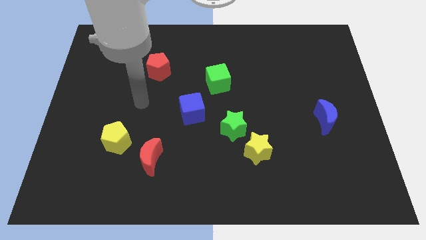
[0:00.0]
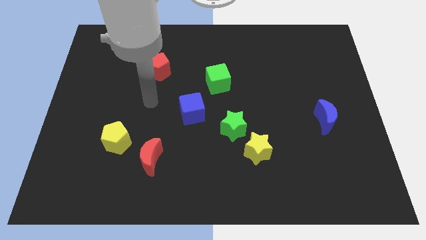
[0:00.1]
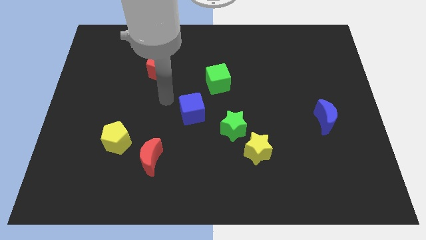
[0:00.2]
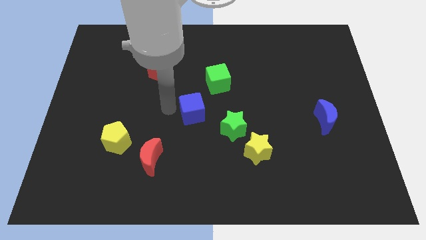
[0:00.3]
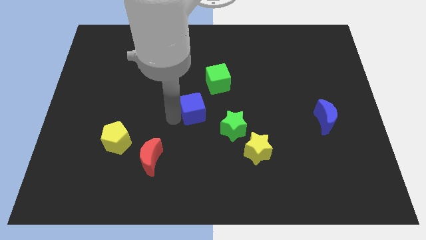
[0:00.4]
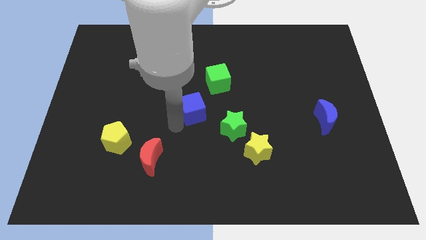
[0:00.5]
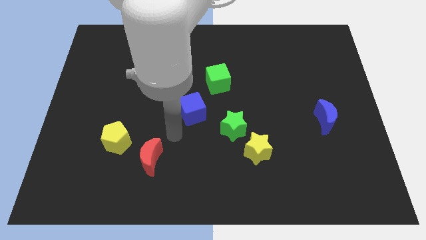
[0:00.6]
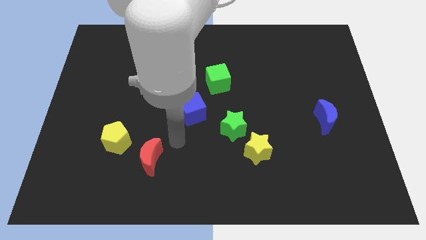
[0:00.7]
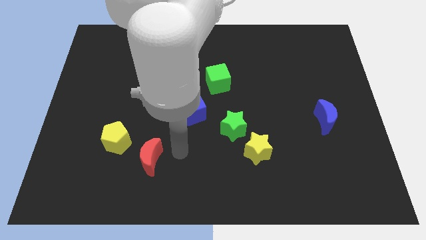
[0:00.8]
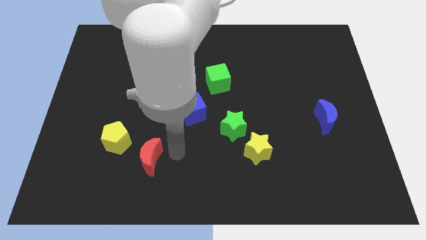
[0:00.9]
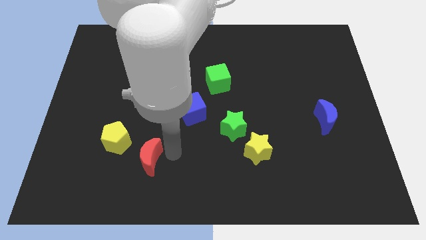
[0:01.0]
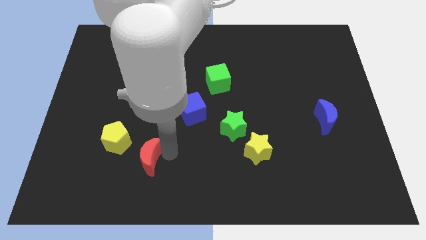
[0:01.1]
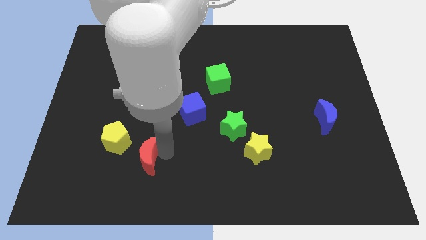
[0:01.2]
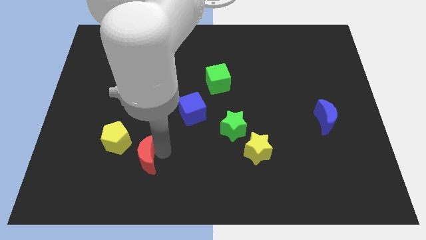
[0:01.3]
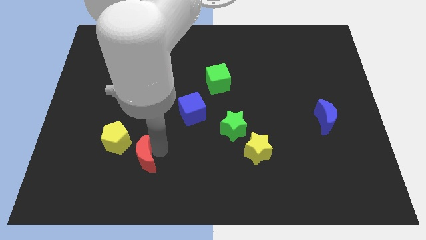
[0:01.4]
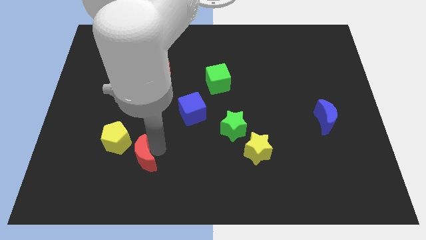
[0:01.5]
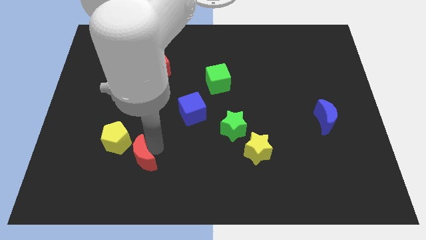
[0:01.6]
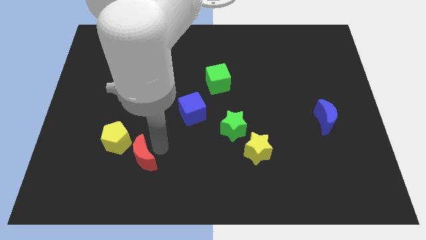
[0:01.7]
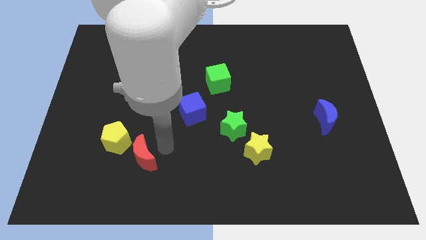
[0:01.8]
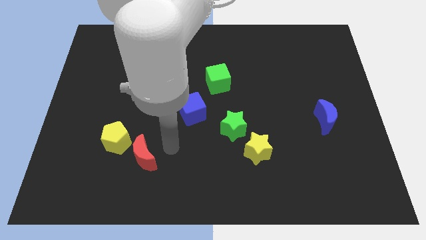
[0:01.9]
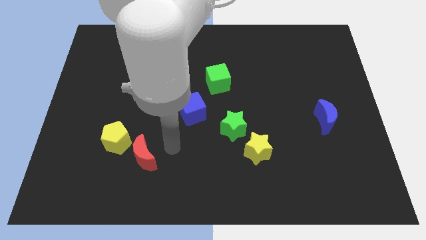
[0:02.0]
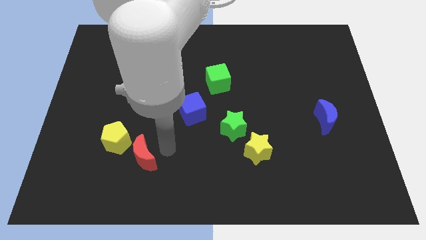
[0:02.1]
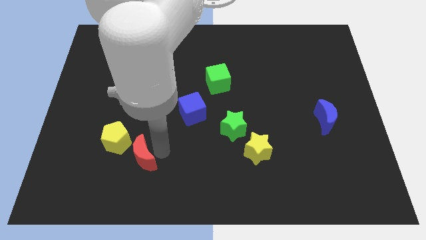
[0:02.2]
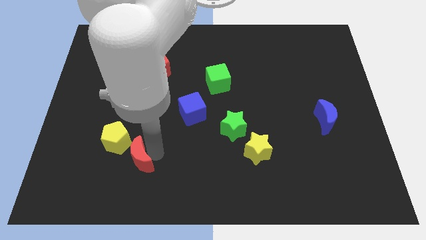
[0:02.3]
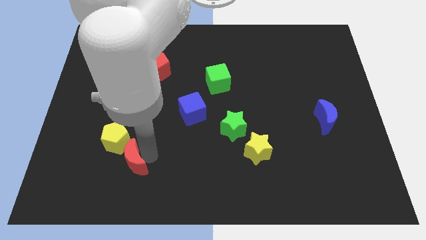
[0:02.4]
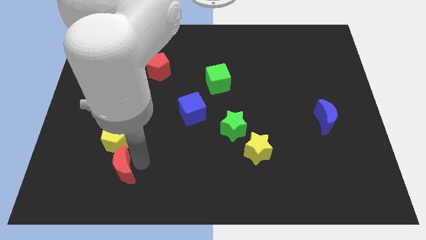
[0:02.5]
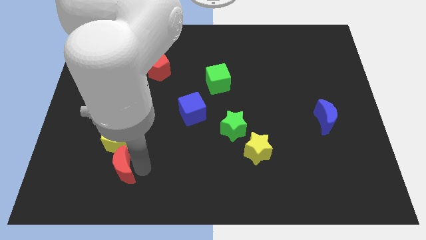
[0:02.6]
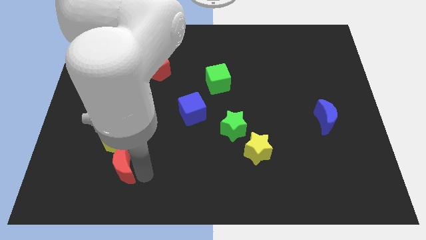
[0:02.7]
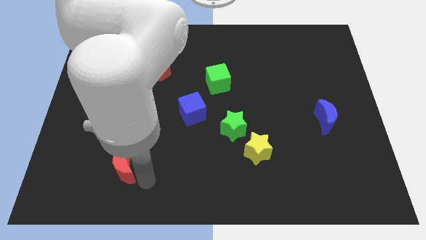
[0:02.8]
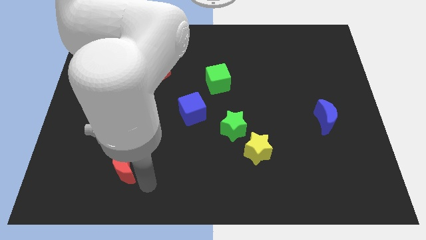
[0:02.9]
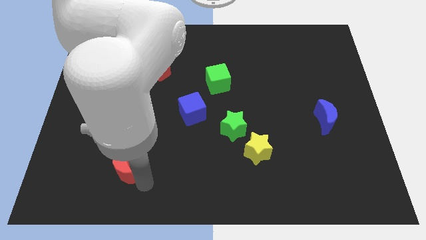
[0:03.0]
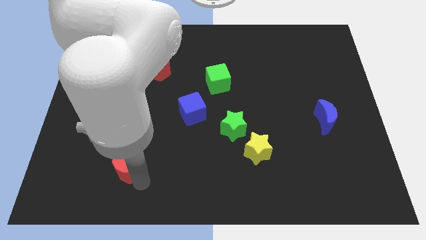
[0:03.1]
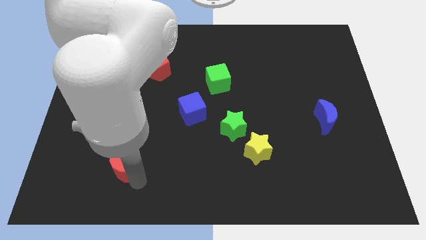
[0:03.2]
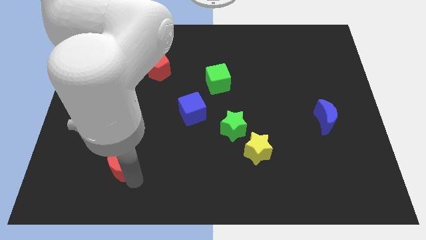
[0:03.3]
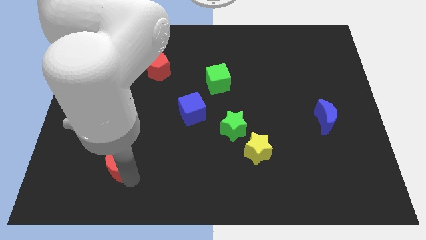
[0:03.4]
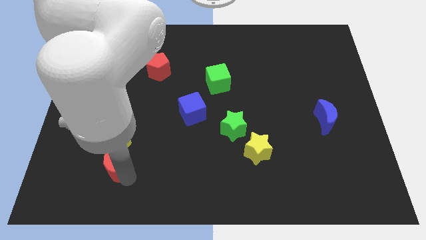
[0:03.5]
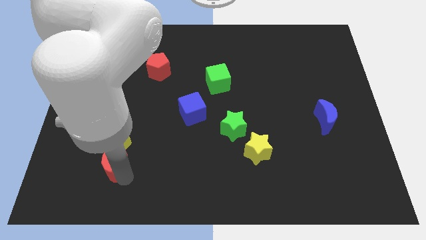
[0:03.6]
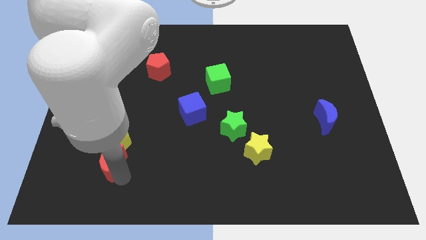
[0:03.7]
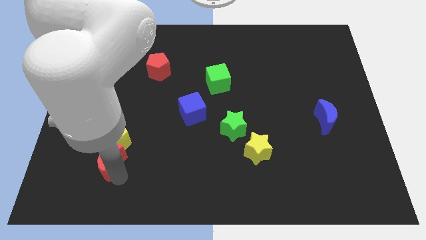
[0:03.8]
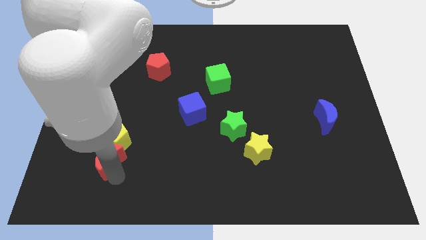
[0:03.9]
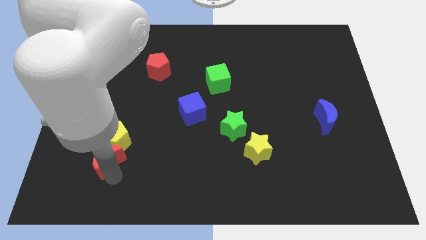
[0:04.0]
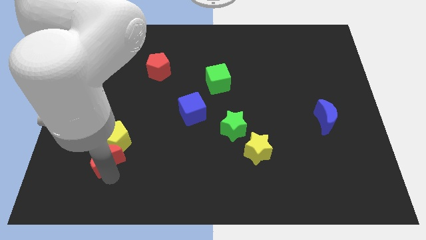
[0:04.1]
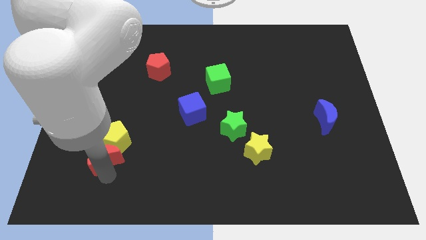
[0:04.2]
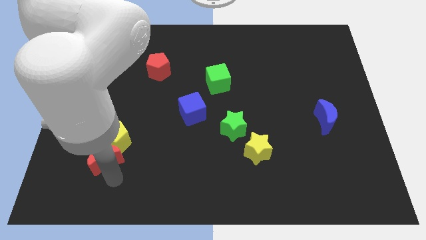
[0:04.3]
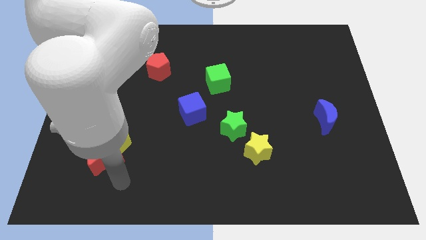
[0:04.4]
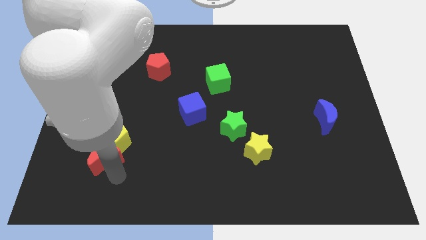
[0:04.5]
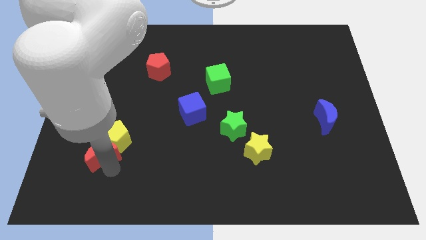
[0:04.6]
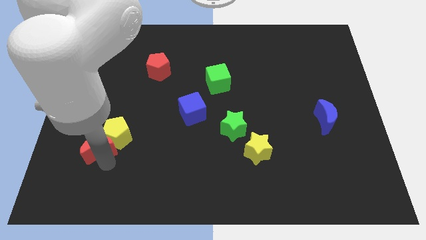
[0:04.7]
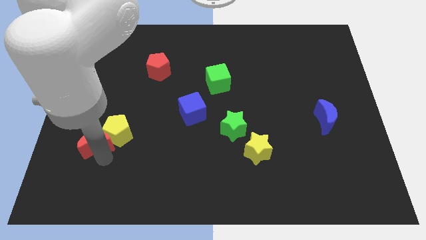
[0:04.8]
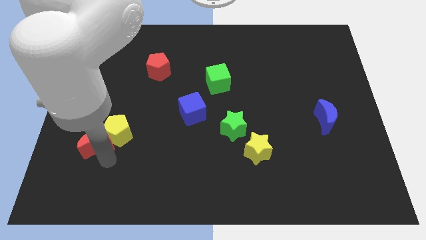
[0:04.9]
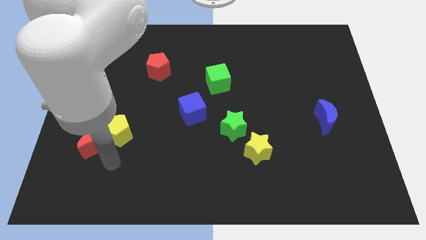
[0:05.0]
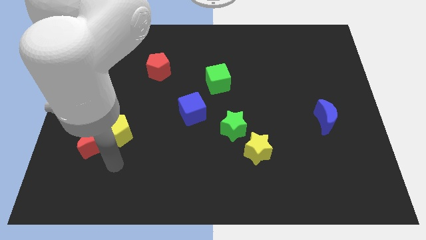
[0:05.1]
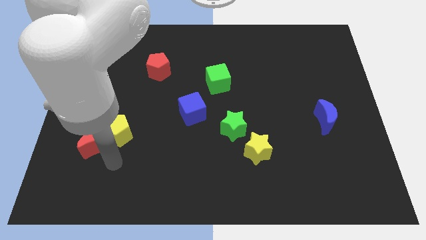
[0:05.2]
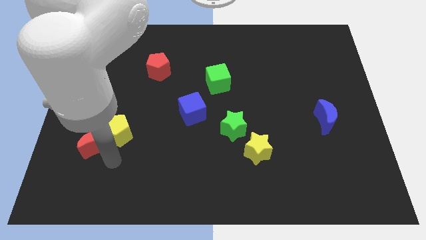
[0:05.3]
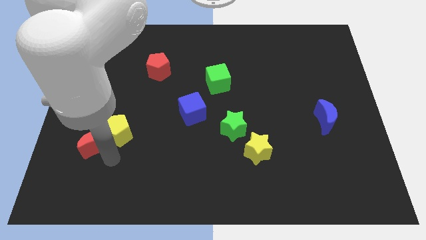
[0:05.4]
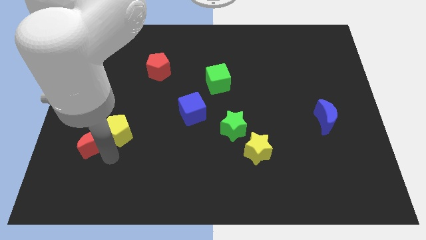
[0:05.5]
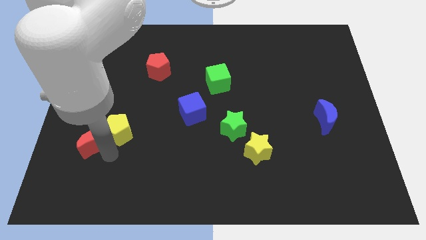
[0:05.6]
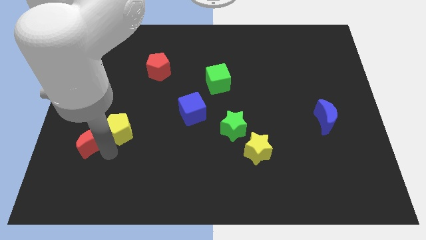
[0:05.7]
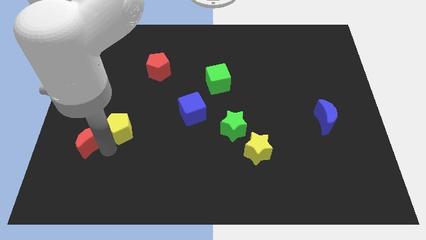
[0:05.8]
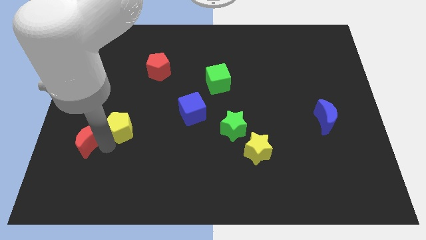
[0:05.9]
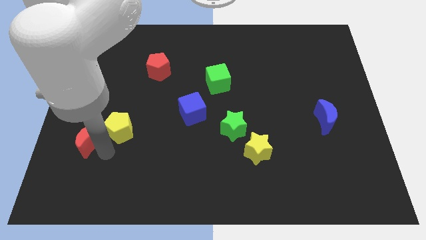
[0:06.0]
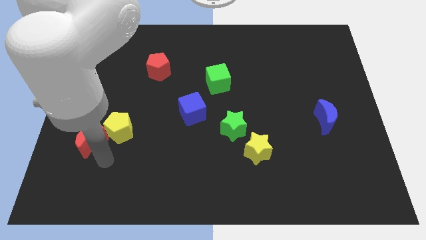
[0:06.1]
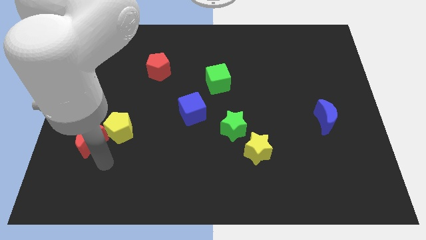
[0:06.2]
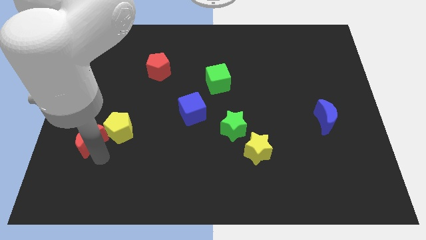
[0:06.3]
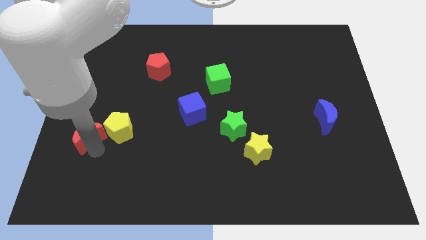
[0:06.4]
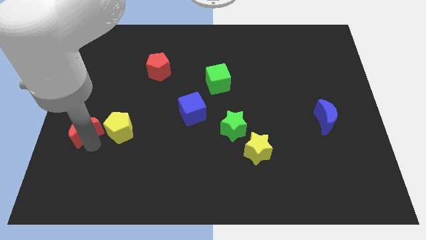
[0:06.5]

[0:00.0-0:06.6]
move the red moon to the center left
